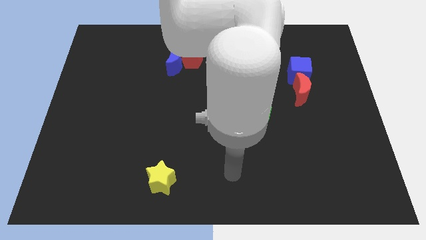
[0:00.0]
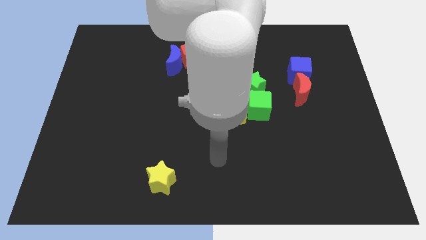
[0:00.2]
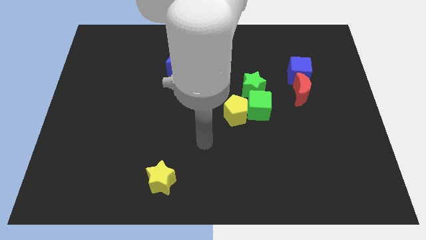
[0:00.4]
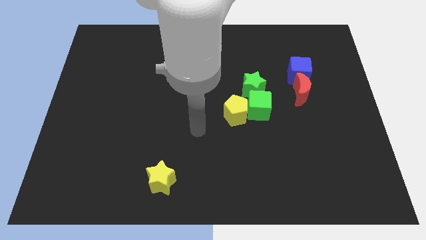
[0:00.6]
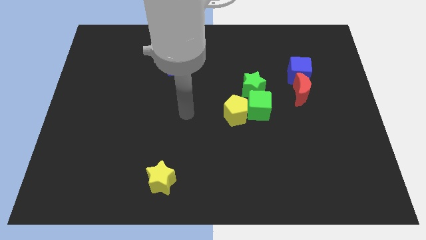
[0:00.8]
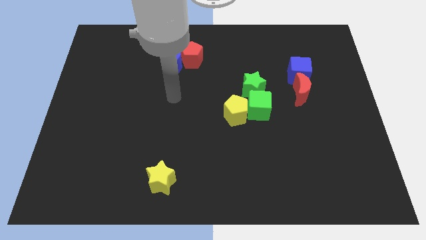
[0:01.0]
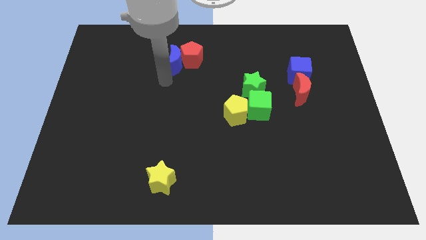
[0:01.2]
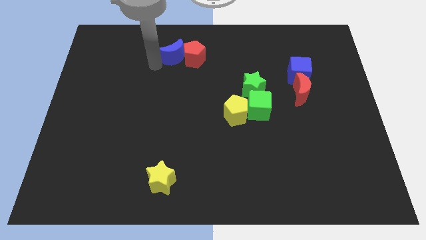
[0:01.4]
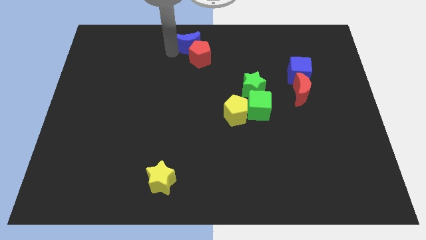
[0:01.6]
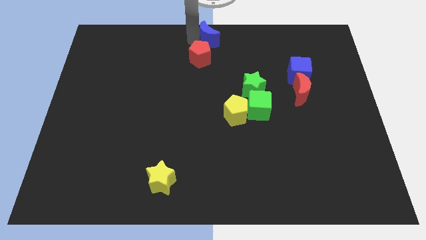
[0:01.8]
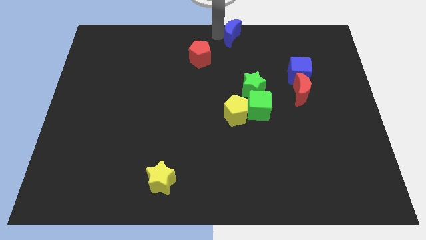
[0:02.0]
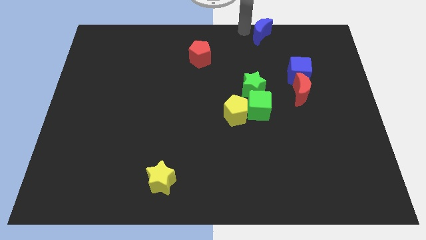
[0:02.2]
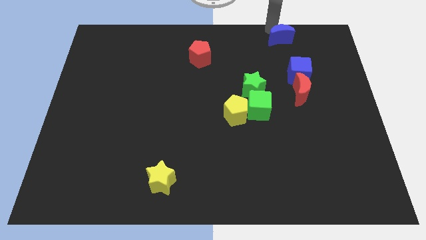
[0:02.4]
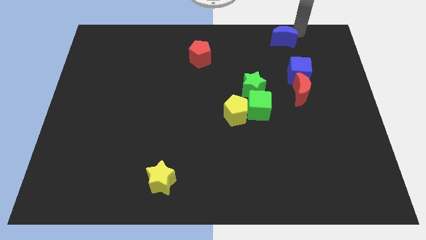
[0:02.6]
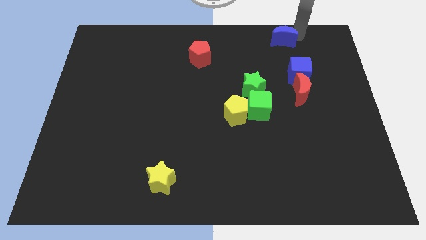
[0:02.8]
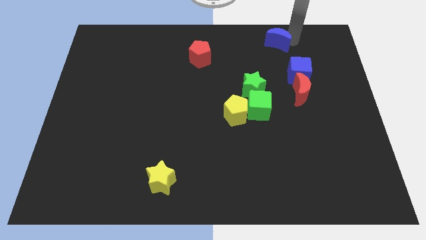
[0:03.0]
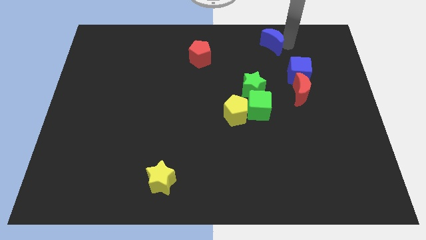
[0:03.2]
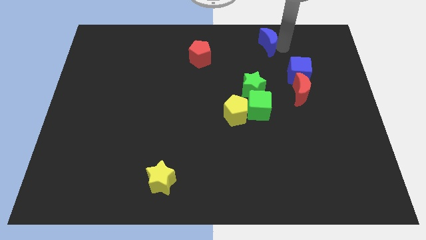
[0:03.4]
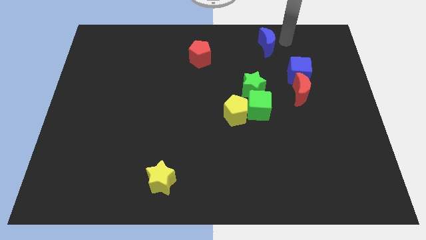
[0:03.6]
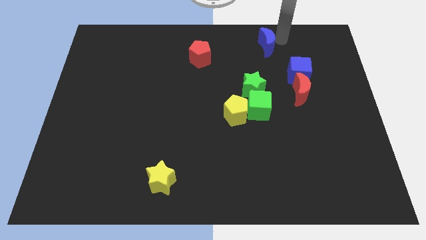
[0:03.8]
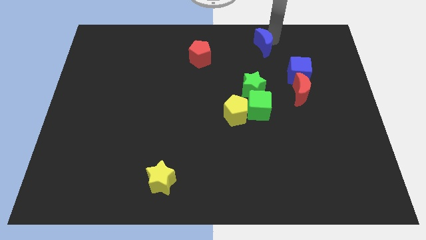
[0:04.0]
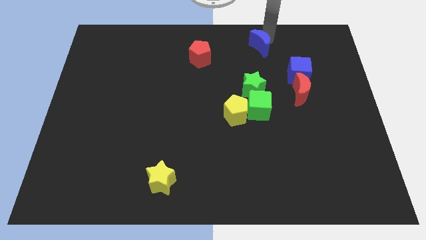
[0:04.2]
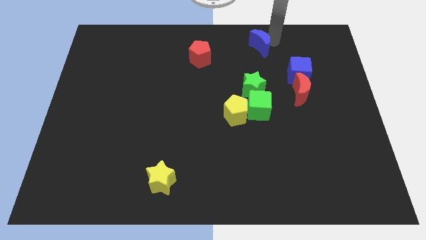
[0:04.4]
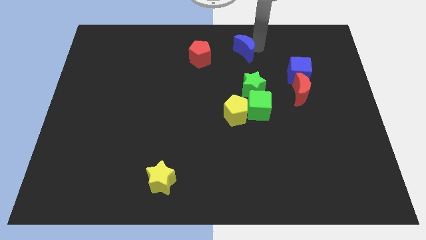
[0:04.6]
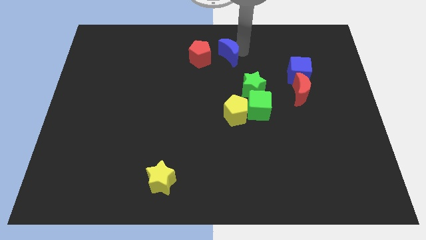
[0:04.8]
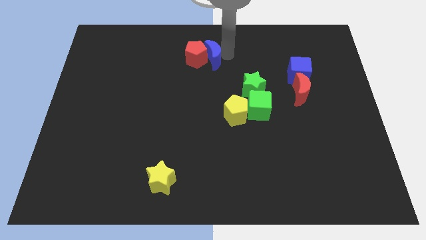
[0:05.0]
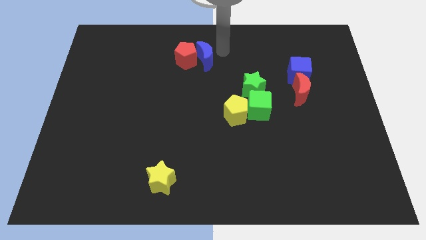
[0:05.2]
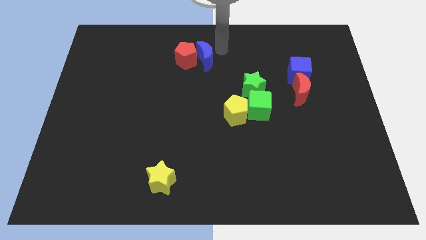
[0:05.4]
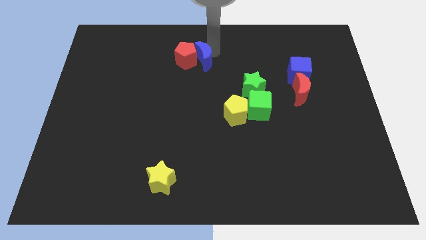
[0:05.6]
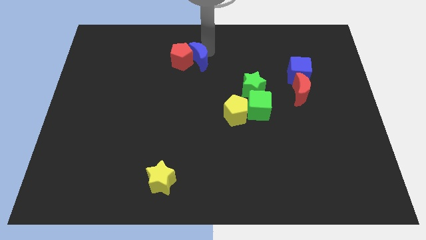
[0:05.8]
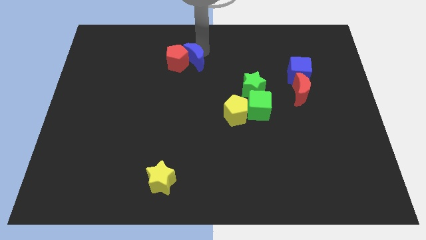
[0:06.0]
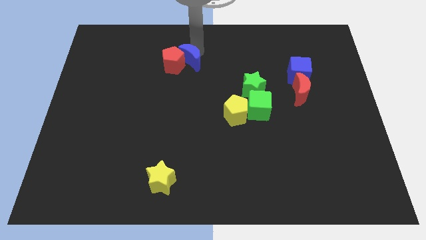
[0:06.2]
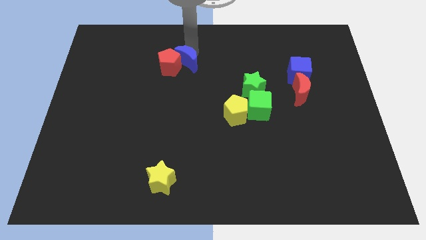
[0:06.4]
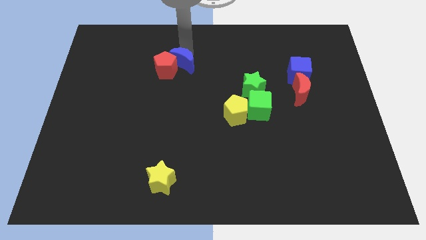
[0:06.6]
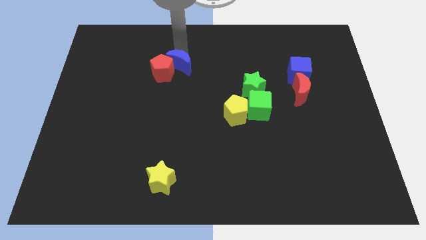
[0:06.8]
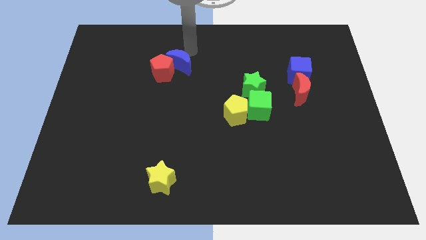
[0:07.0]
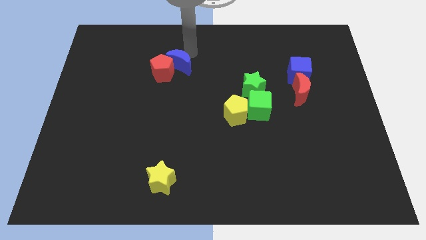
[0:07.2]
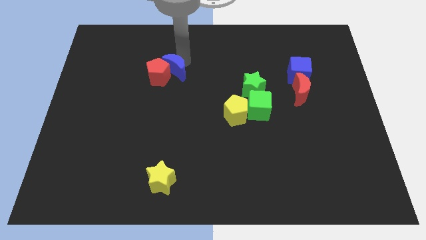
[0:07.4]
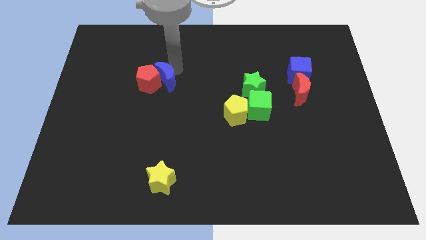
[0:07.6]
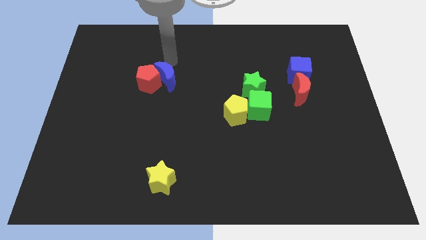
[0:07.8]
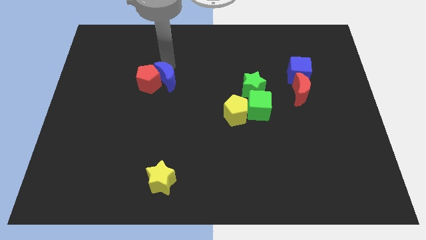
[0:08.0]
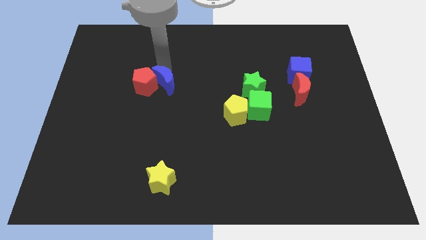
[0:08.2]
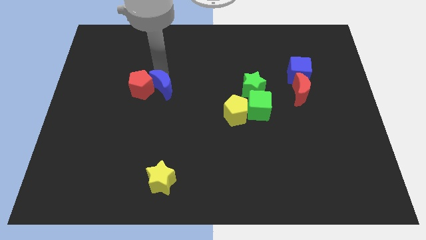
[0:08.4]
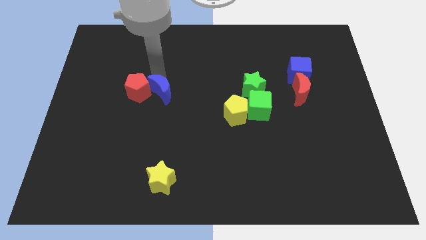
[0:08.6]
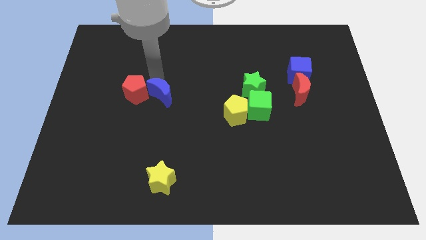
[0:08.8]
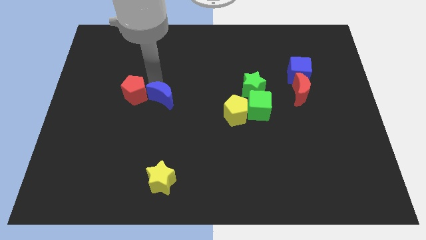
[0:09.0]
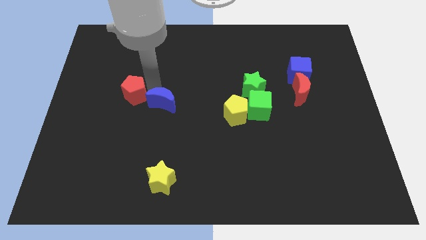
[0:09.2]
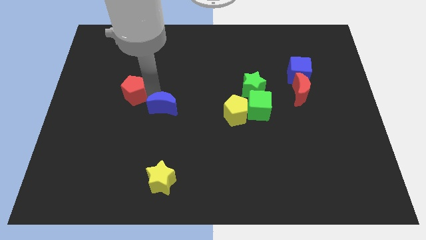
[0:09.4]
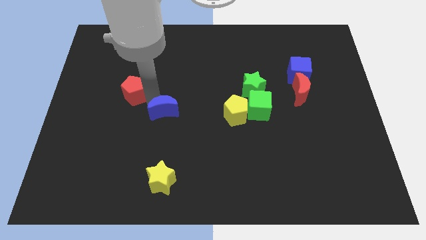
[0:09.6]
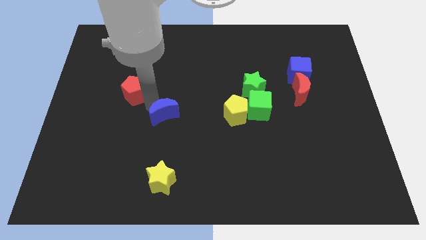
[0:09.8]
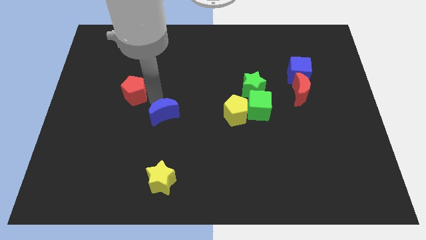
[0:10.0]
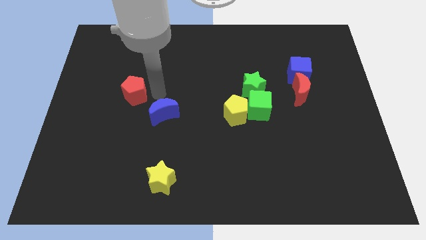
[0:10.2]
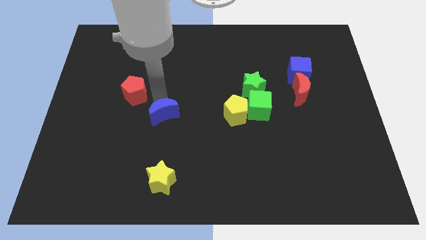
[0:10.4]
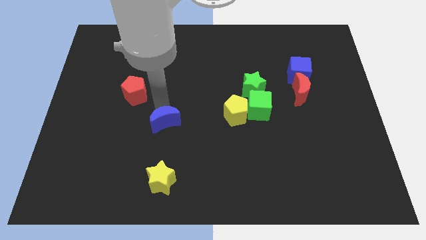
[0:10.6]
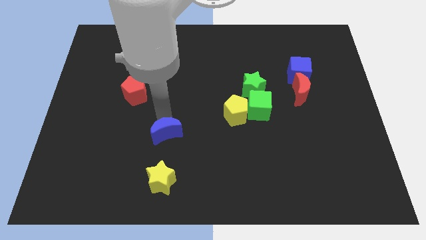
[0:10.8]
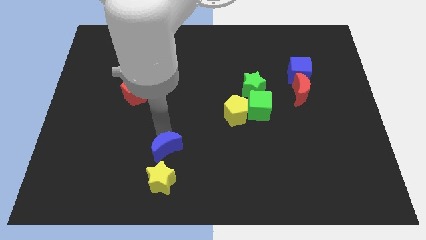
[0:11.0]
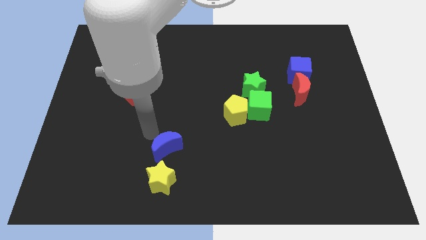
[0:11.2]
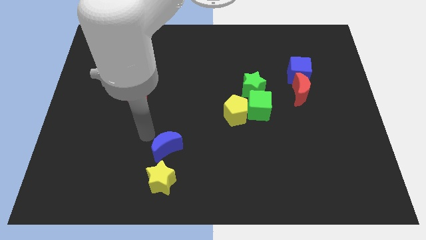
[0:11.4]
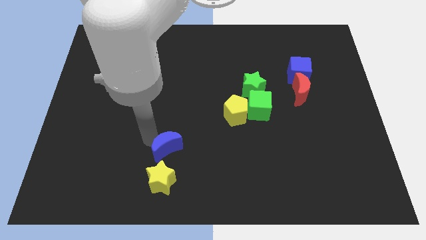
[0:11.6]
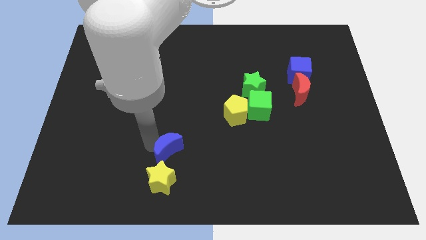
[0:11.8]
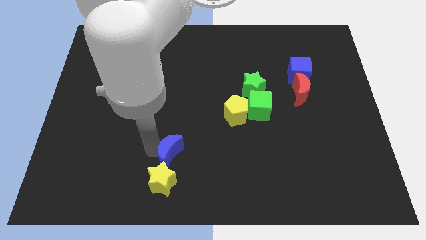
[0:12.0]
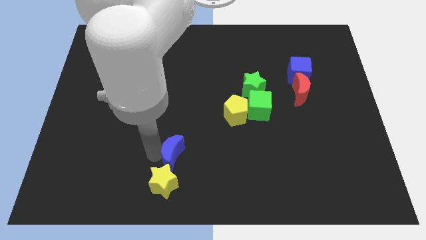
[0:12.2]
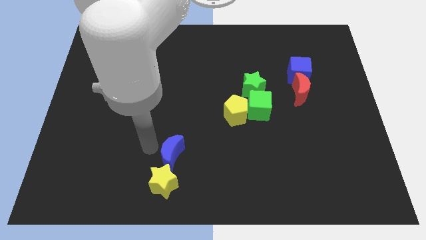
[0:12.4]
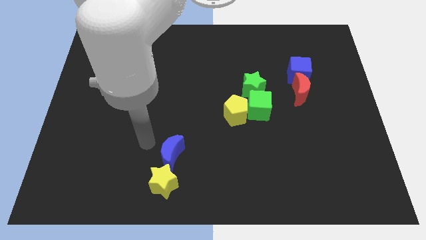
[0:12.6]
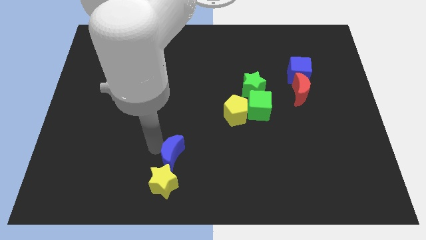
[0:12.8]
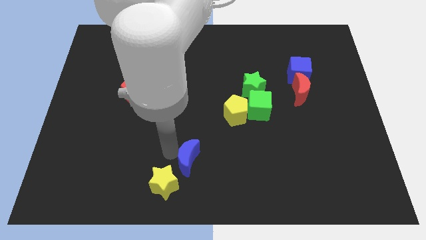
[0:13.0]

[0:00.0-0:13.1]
push the blue moon to the bottom side
